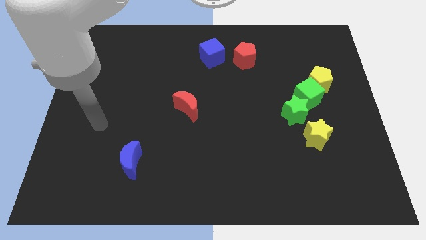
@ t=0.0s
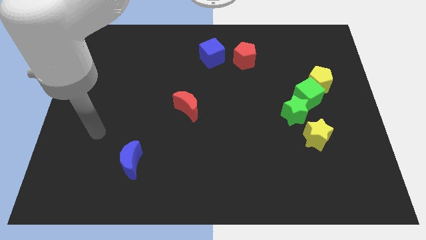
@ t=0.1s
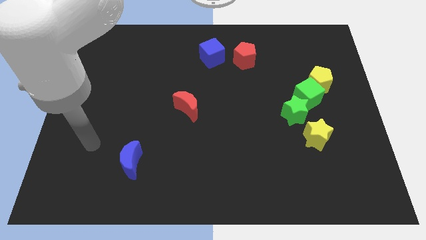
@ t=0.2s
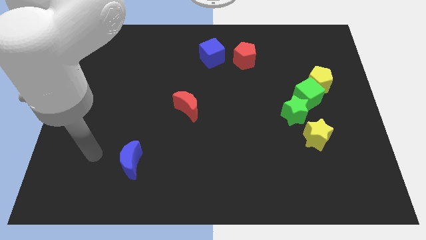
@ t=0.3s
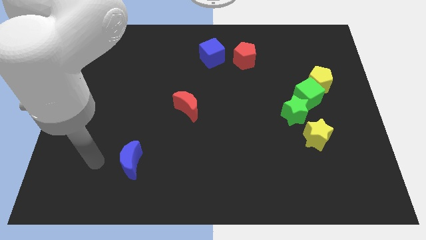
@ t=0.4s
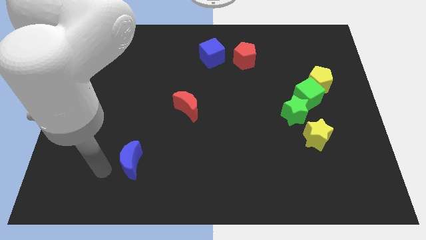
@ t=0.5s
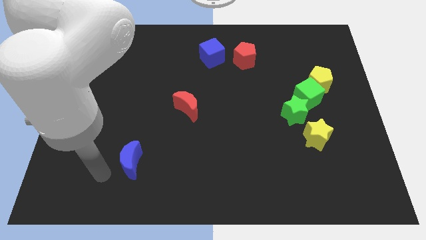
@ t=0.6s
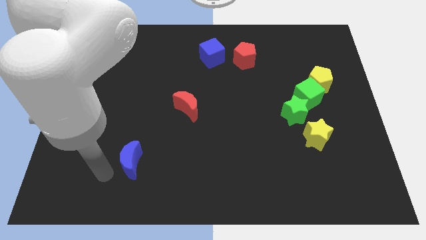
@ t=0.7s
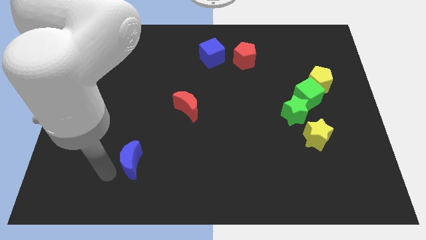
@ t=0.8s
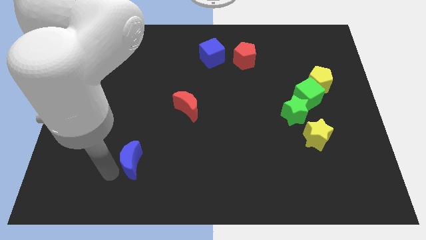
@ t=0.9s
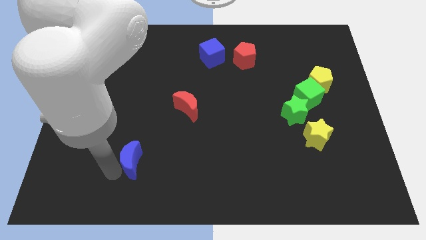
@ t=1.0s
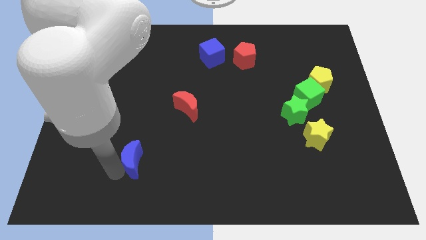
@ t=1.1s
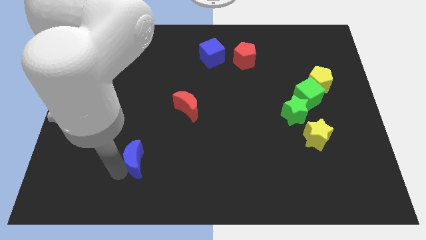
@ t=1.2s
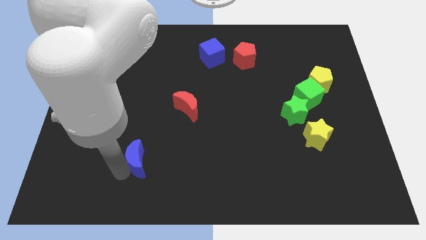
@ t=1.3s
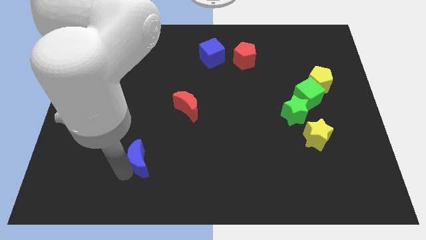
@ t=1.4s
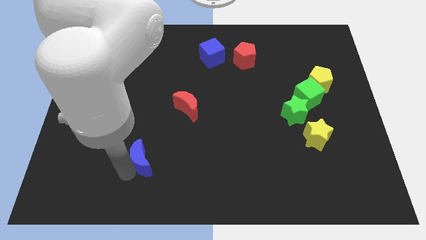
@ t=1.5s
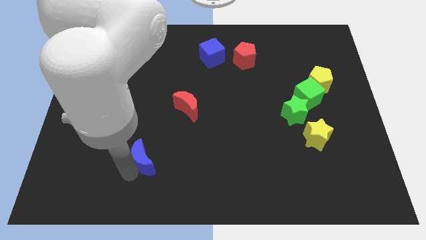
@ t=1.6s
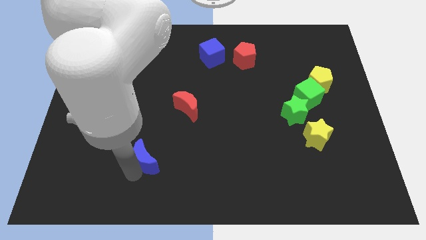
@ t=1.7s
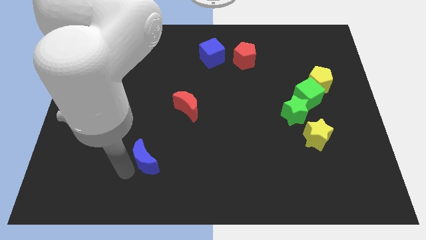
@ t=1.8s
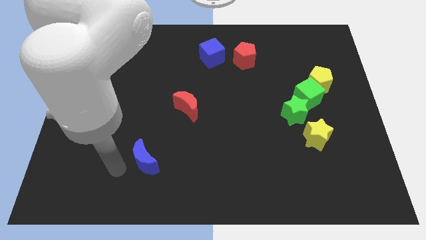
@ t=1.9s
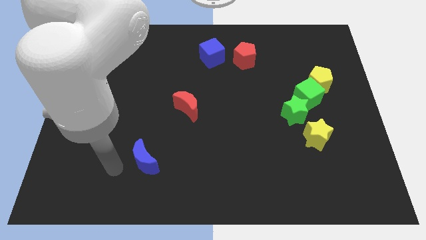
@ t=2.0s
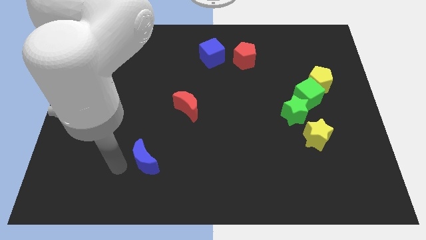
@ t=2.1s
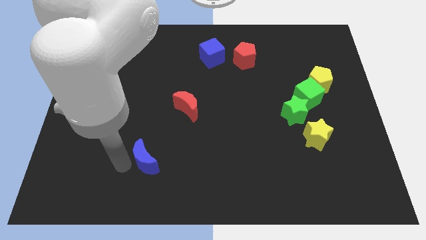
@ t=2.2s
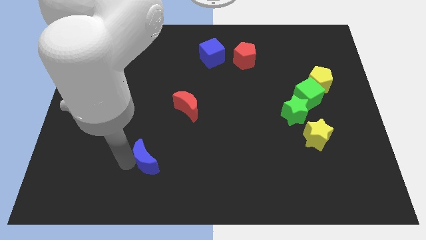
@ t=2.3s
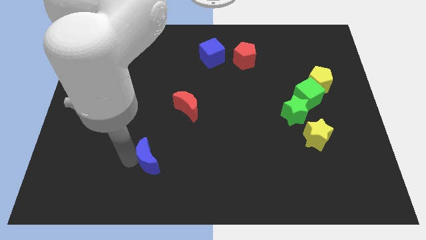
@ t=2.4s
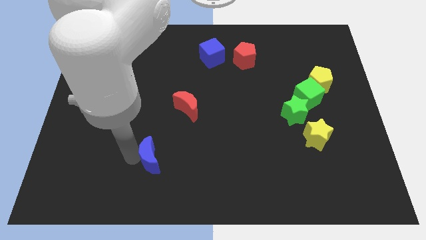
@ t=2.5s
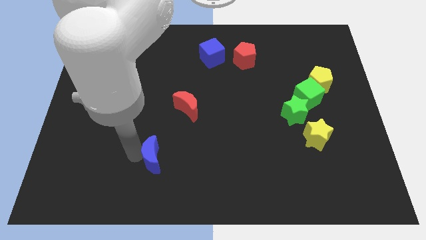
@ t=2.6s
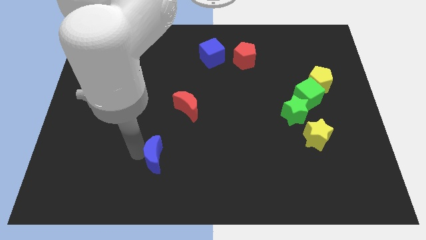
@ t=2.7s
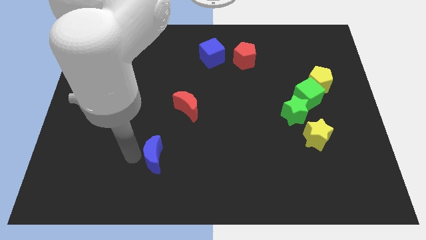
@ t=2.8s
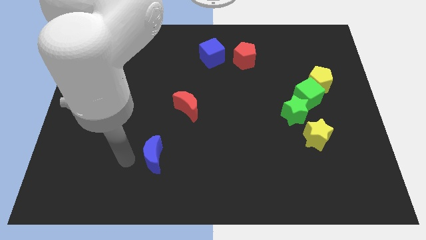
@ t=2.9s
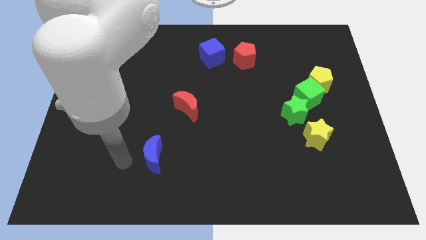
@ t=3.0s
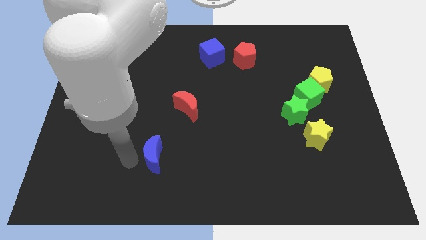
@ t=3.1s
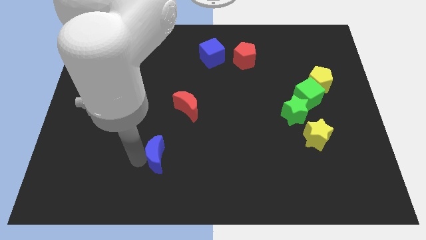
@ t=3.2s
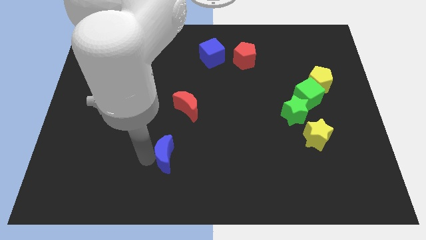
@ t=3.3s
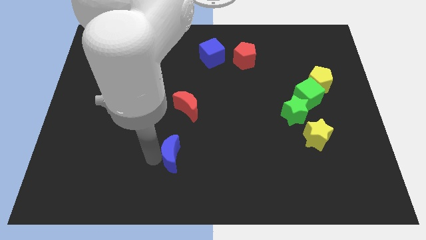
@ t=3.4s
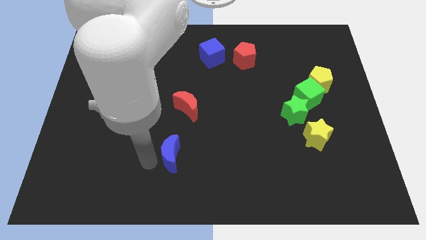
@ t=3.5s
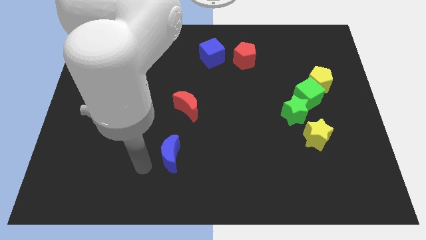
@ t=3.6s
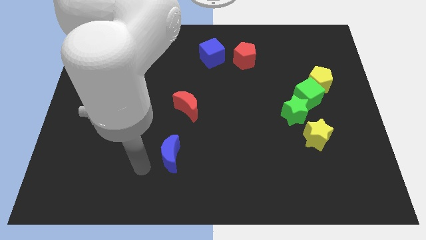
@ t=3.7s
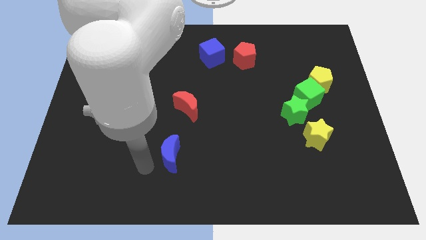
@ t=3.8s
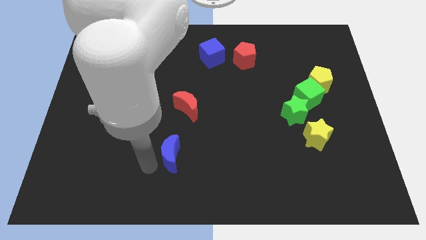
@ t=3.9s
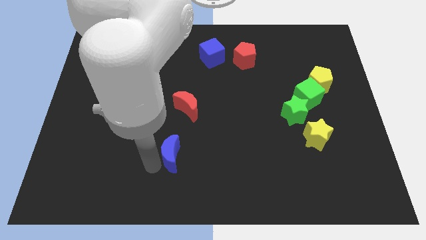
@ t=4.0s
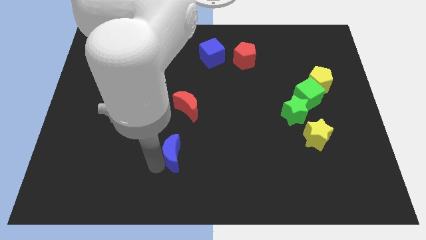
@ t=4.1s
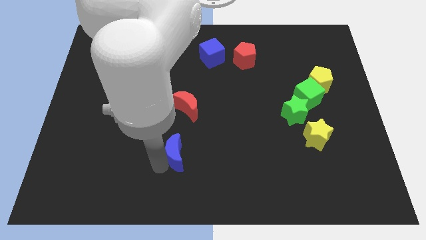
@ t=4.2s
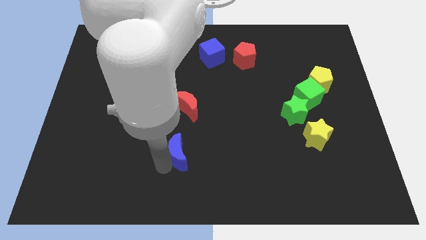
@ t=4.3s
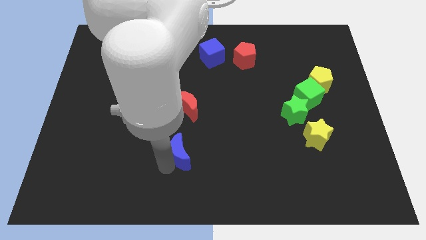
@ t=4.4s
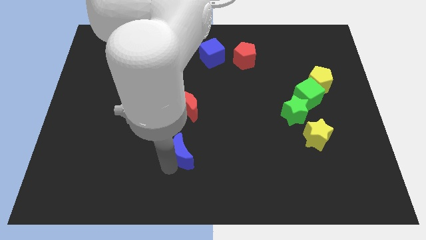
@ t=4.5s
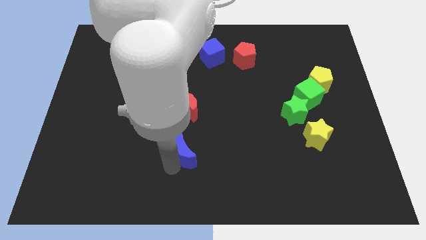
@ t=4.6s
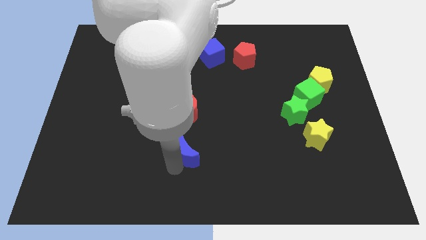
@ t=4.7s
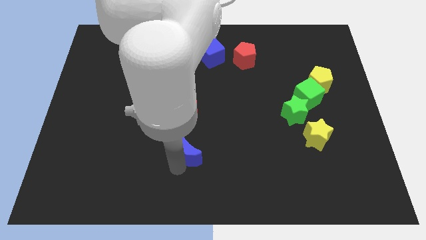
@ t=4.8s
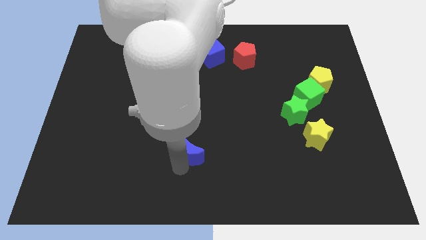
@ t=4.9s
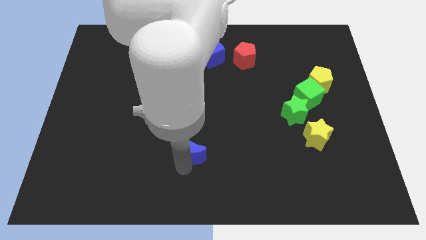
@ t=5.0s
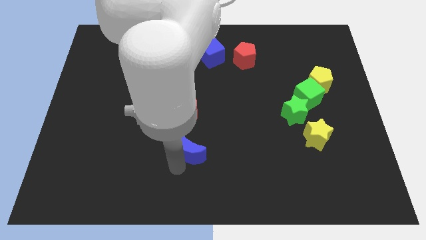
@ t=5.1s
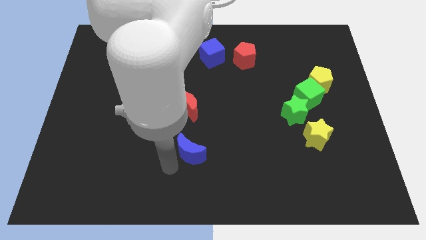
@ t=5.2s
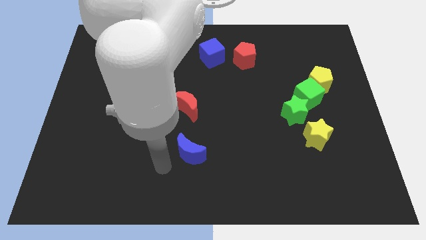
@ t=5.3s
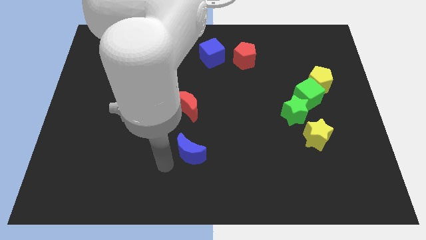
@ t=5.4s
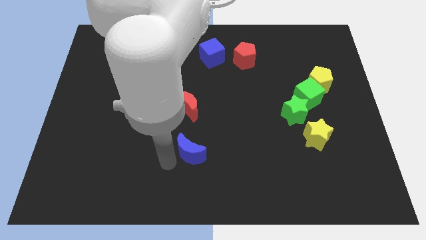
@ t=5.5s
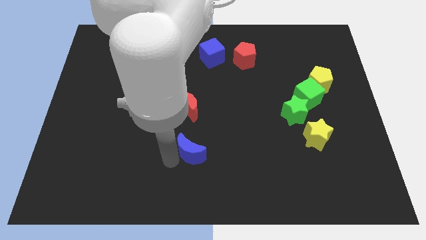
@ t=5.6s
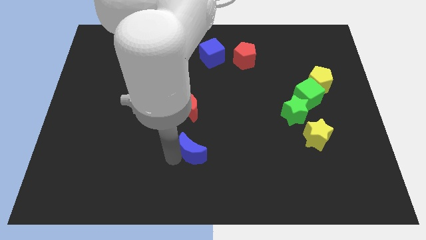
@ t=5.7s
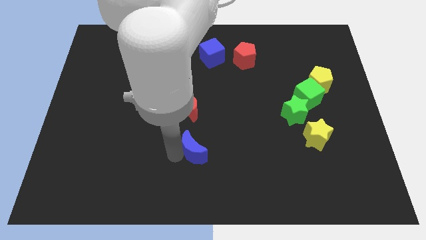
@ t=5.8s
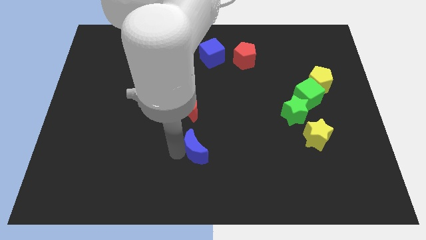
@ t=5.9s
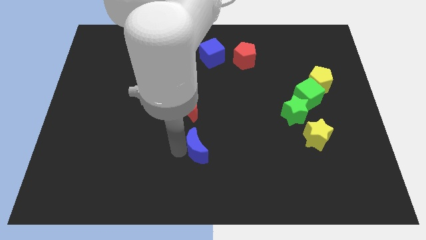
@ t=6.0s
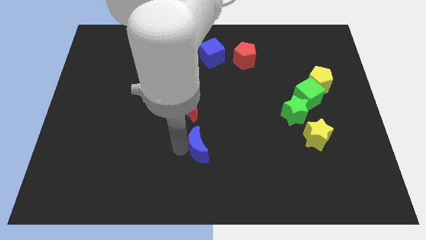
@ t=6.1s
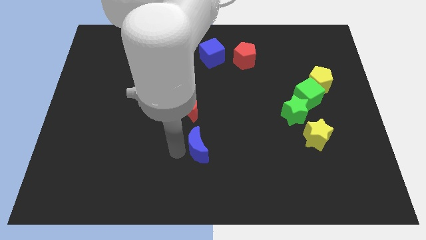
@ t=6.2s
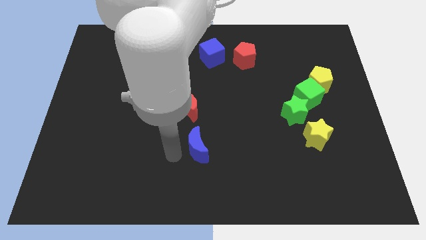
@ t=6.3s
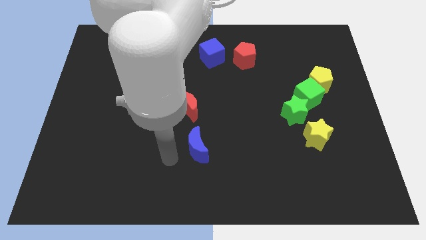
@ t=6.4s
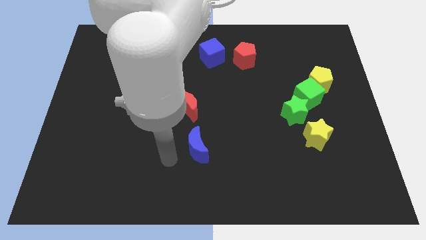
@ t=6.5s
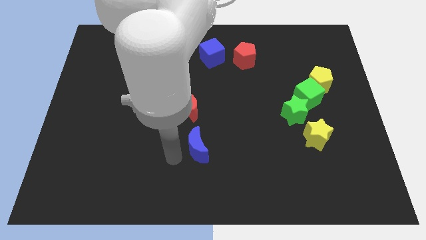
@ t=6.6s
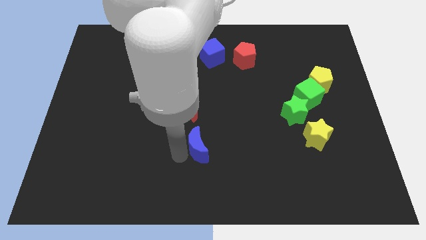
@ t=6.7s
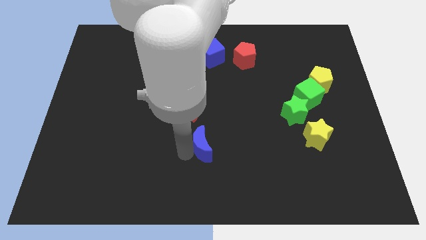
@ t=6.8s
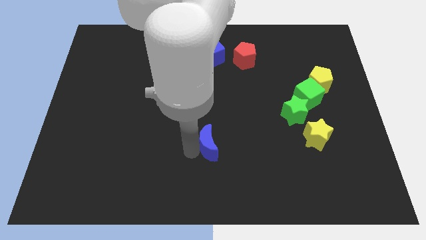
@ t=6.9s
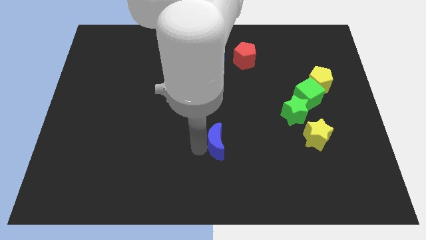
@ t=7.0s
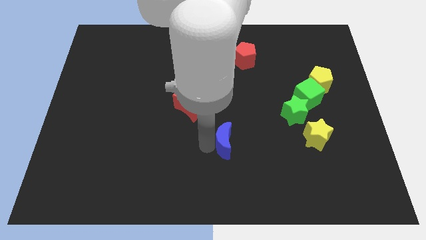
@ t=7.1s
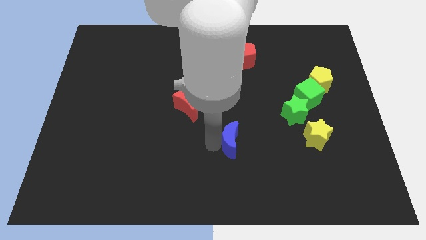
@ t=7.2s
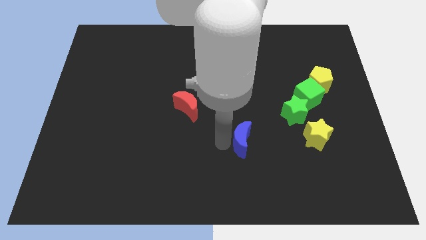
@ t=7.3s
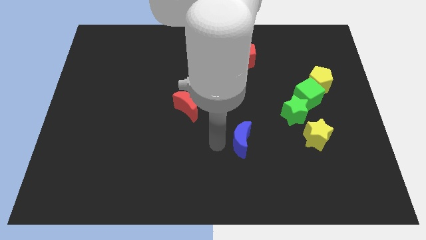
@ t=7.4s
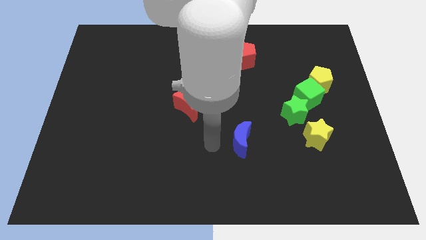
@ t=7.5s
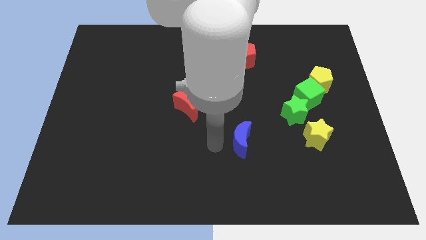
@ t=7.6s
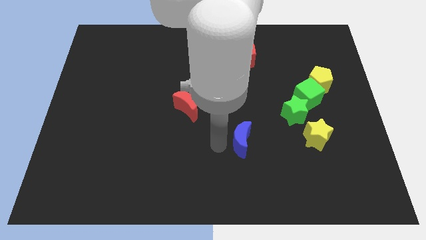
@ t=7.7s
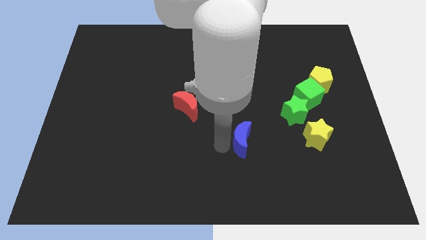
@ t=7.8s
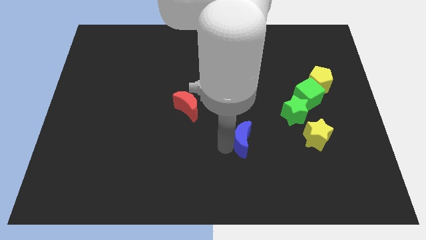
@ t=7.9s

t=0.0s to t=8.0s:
push the blue moon left of the yellow star
